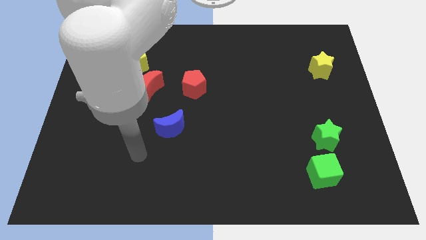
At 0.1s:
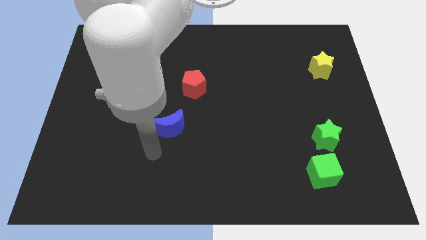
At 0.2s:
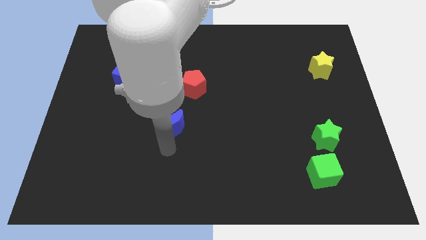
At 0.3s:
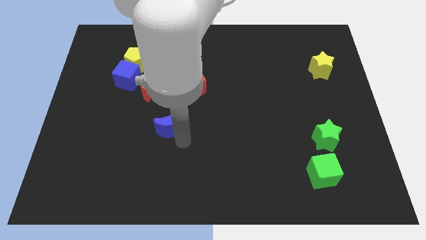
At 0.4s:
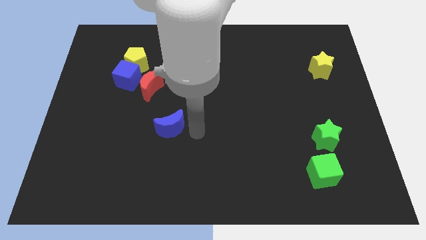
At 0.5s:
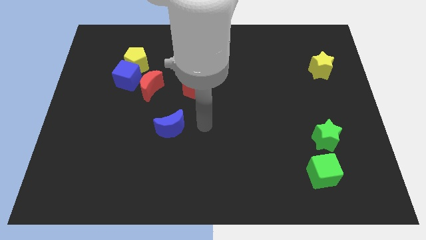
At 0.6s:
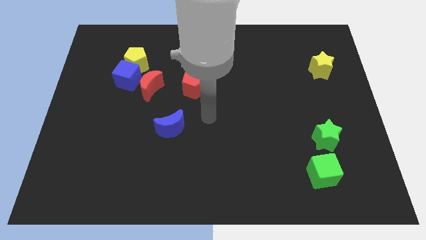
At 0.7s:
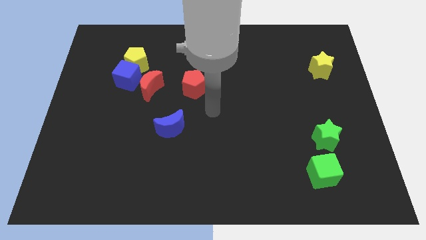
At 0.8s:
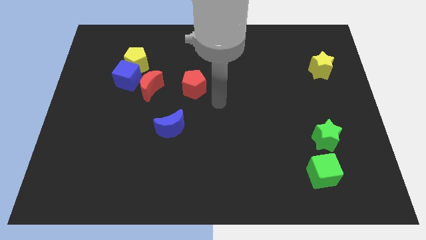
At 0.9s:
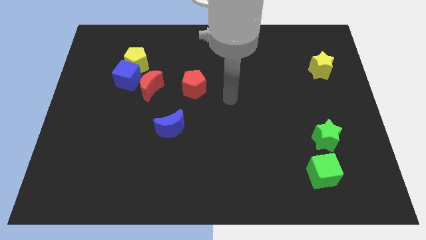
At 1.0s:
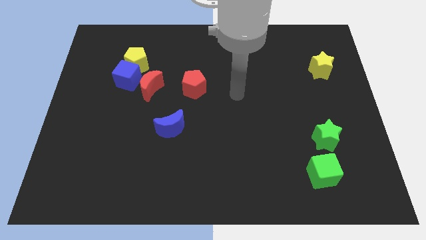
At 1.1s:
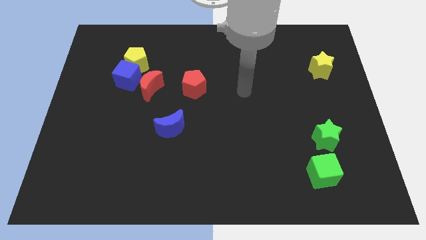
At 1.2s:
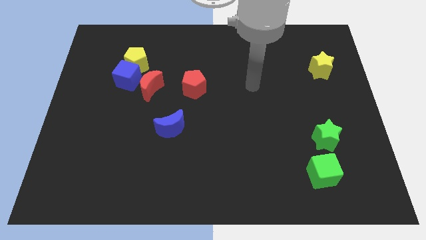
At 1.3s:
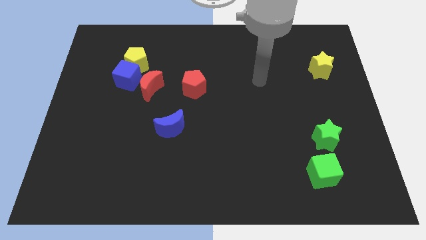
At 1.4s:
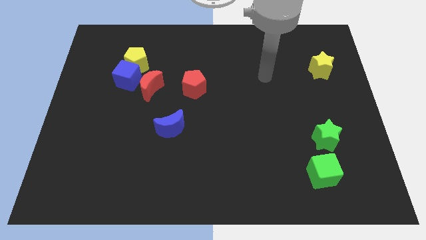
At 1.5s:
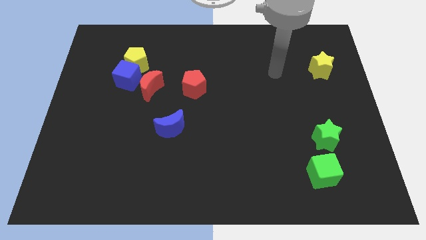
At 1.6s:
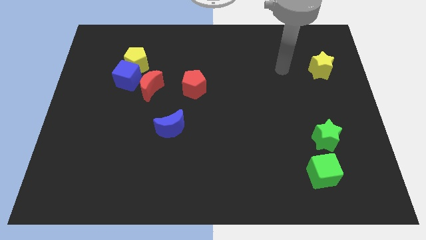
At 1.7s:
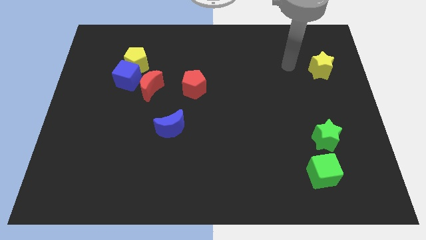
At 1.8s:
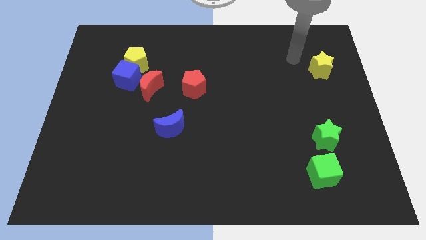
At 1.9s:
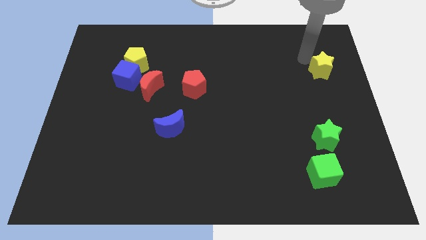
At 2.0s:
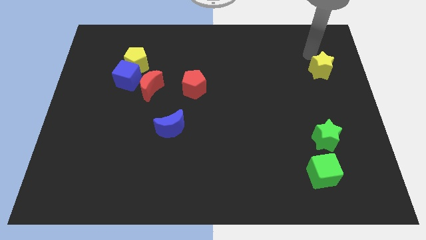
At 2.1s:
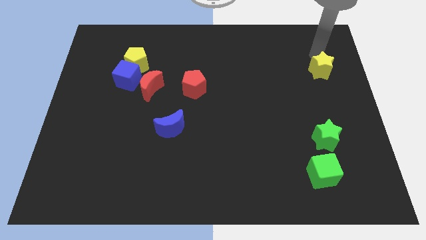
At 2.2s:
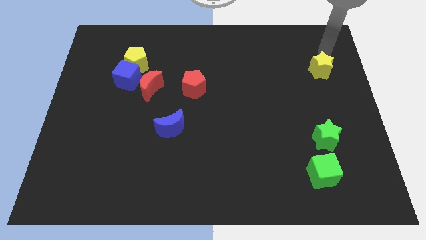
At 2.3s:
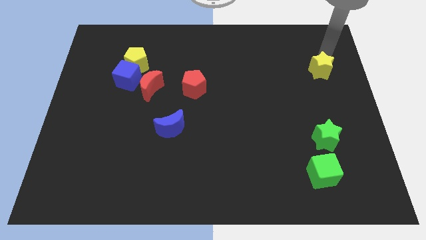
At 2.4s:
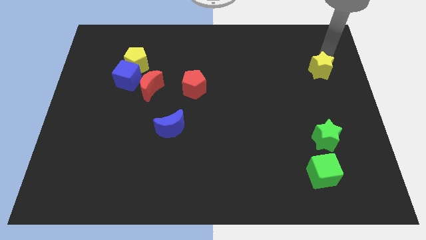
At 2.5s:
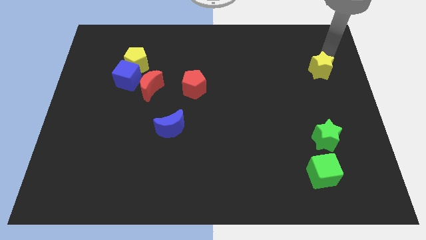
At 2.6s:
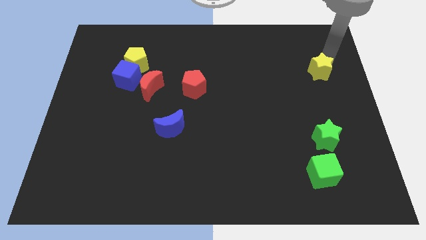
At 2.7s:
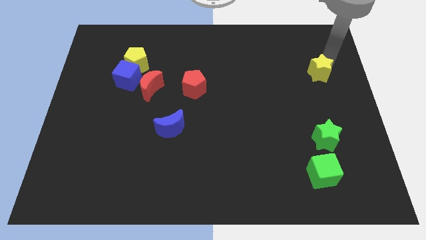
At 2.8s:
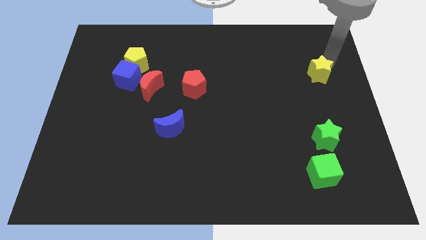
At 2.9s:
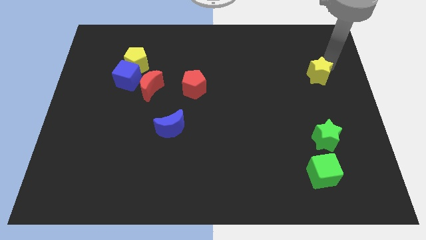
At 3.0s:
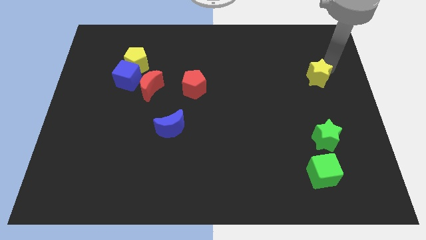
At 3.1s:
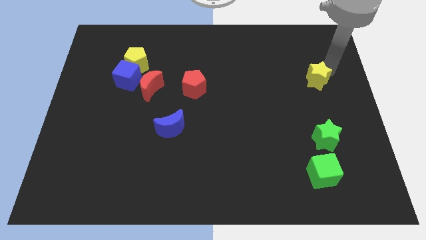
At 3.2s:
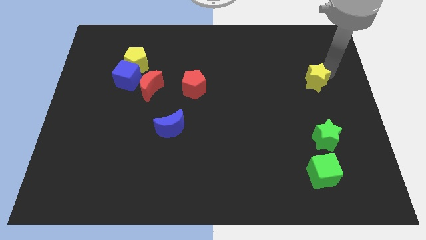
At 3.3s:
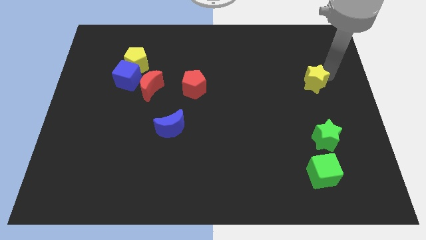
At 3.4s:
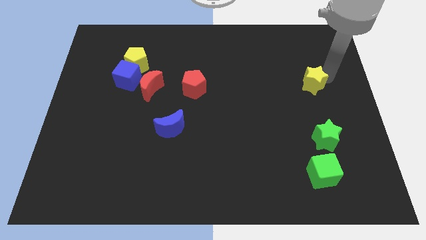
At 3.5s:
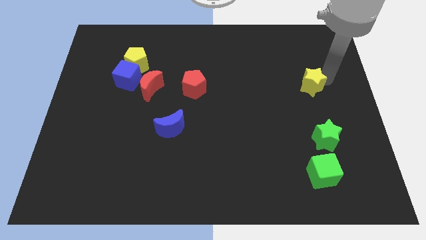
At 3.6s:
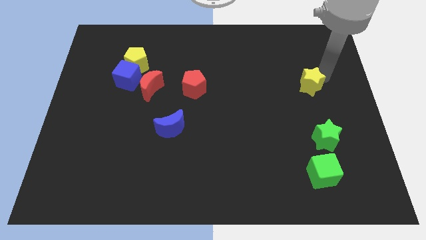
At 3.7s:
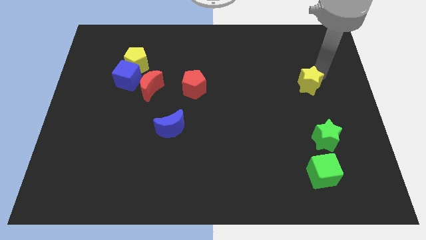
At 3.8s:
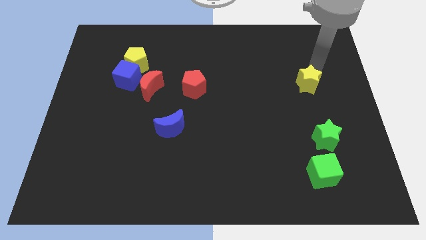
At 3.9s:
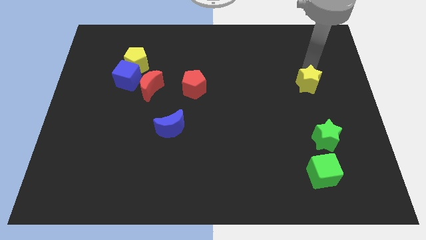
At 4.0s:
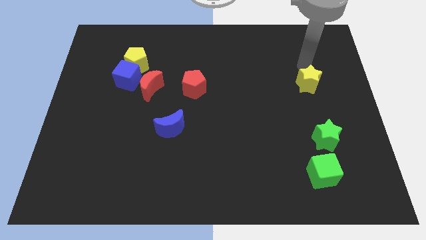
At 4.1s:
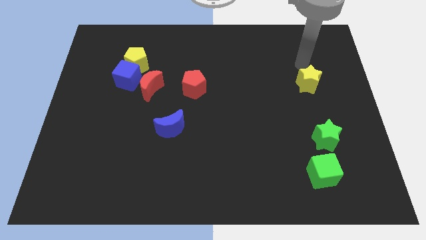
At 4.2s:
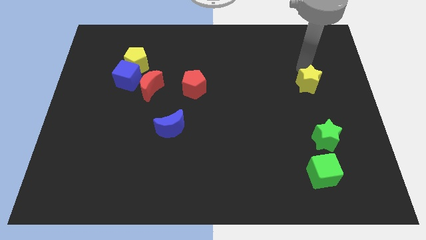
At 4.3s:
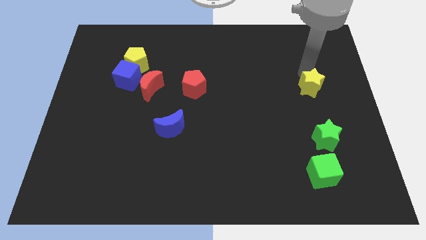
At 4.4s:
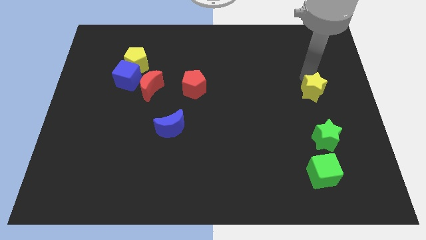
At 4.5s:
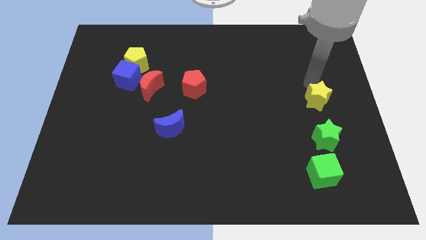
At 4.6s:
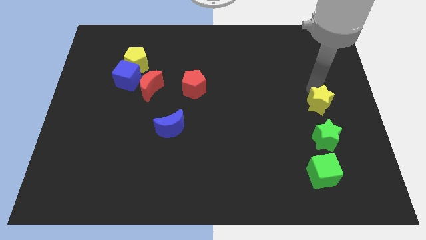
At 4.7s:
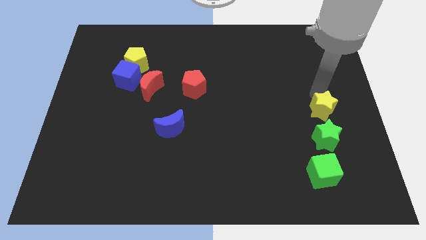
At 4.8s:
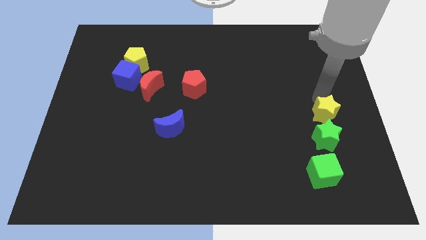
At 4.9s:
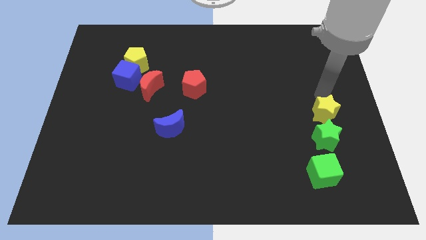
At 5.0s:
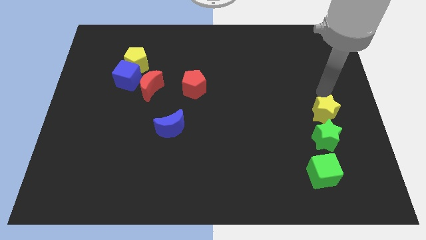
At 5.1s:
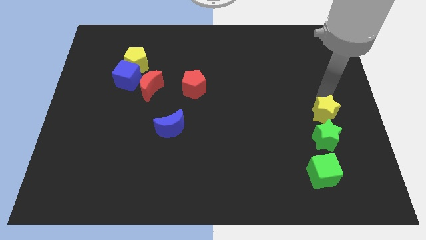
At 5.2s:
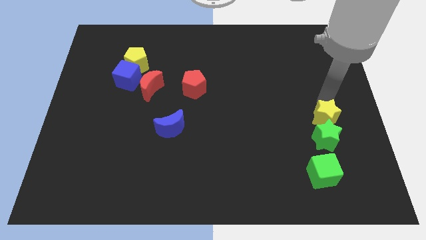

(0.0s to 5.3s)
push the yellow star next to the green star

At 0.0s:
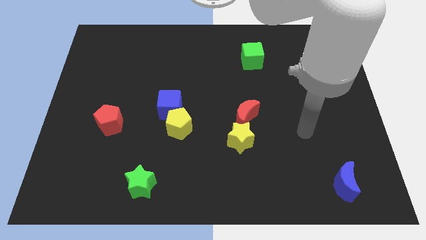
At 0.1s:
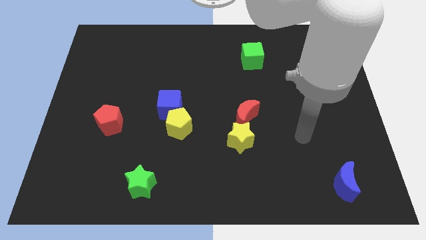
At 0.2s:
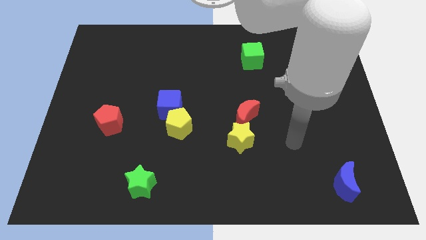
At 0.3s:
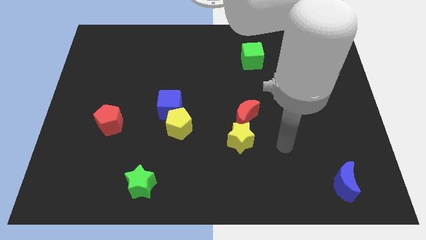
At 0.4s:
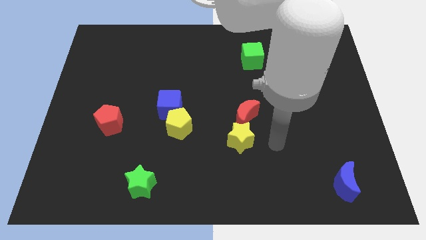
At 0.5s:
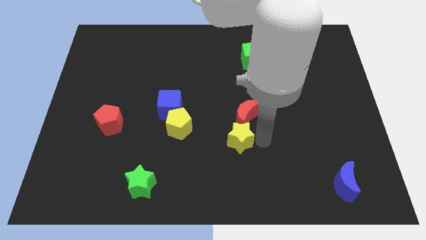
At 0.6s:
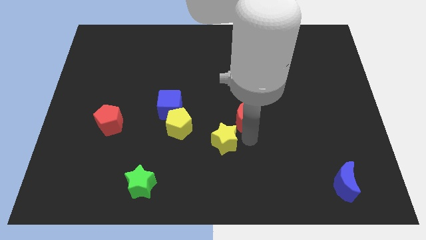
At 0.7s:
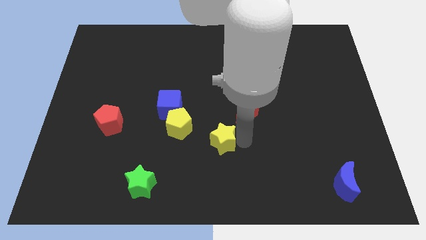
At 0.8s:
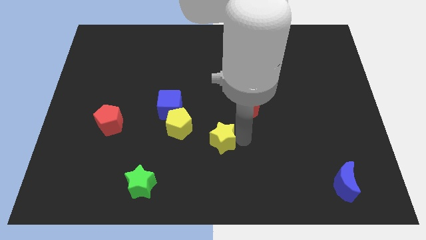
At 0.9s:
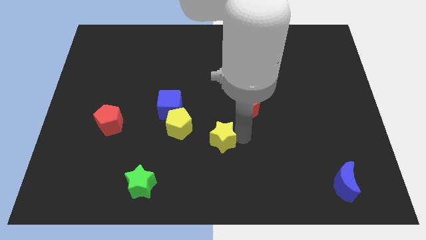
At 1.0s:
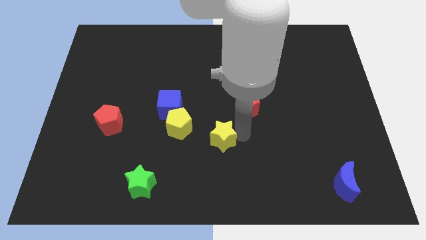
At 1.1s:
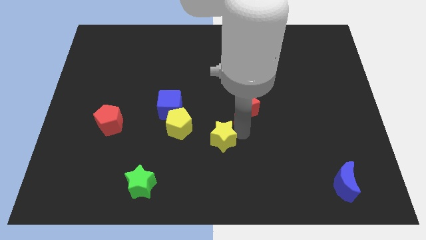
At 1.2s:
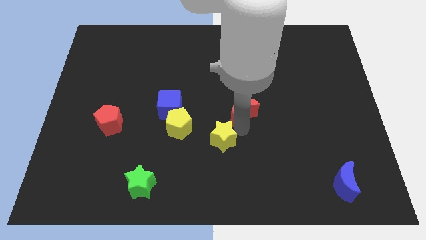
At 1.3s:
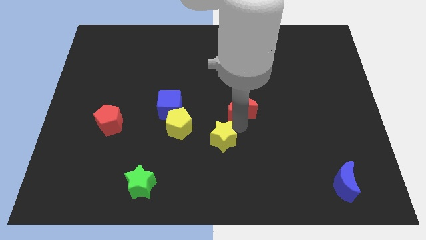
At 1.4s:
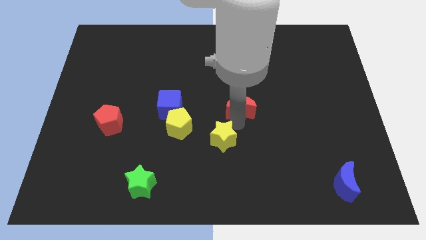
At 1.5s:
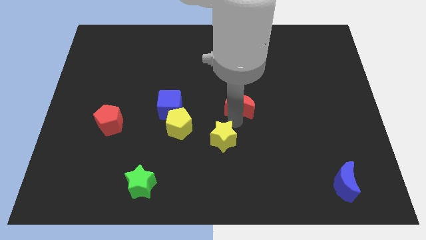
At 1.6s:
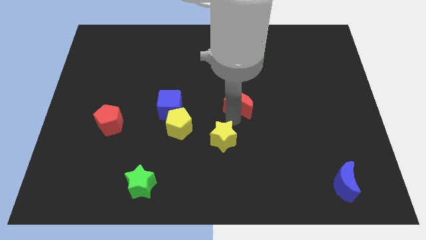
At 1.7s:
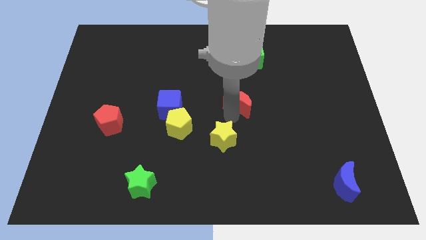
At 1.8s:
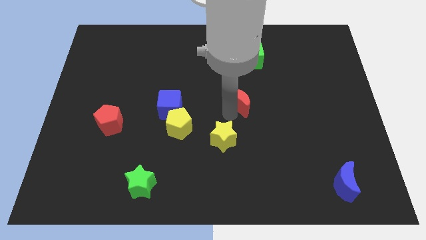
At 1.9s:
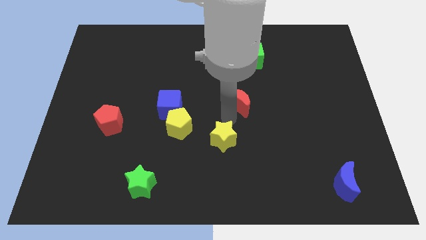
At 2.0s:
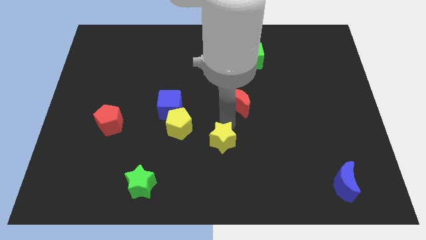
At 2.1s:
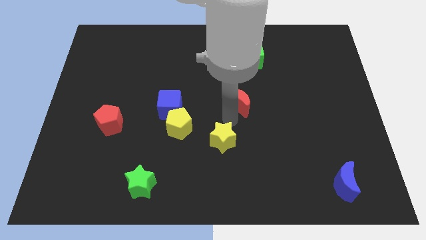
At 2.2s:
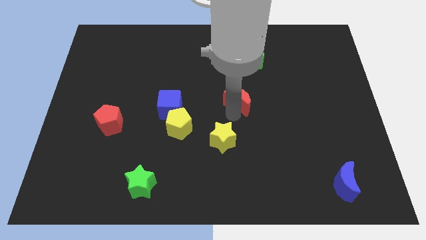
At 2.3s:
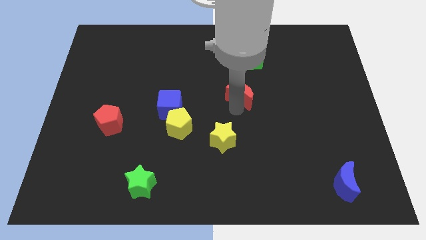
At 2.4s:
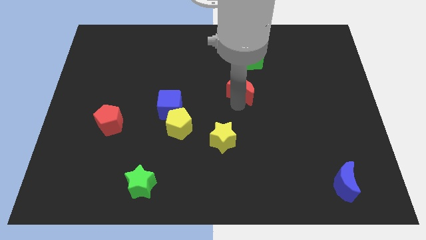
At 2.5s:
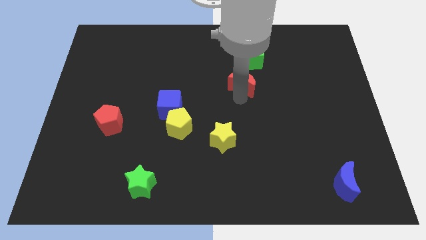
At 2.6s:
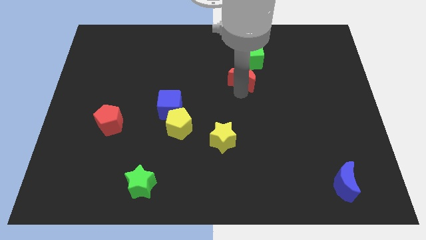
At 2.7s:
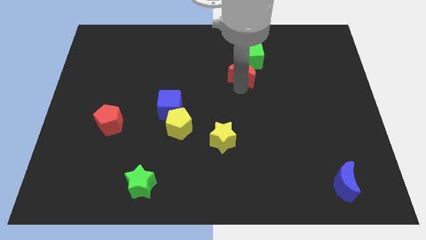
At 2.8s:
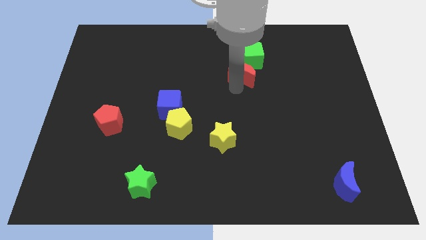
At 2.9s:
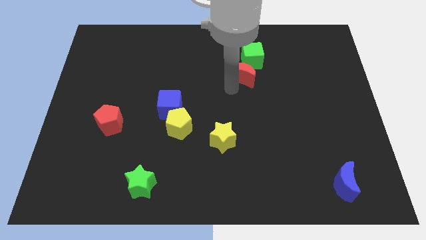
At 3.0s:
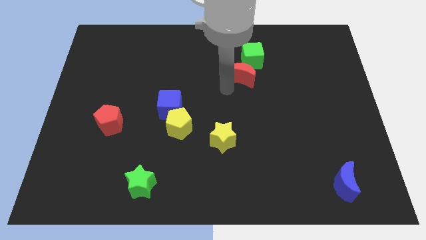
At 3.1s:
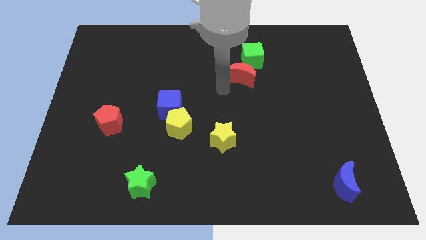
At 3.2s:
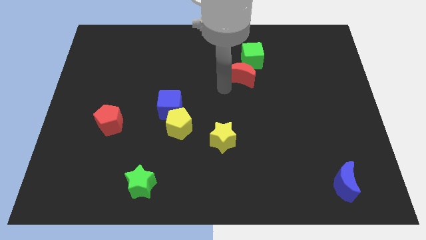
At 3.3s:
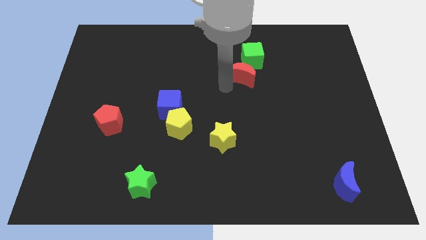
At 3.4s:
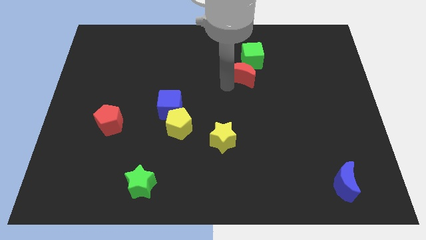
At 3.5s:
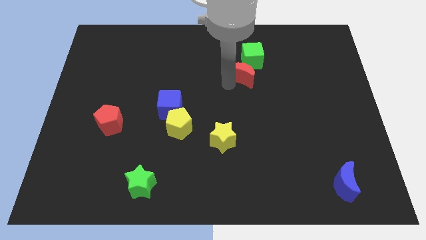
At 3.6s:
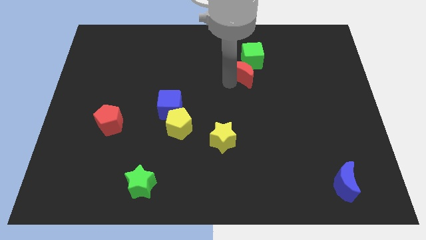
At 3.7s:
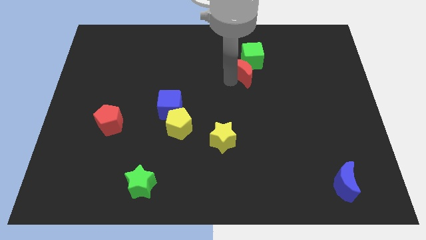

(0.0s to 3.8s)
put the red moon next to the green cube
